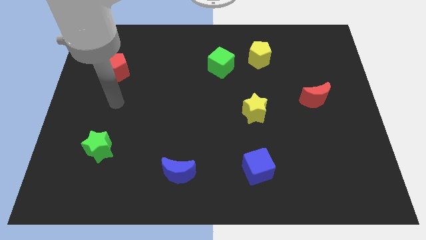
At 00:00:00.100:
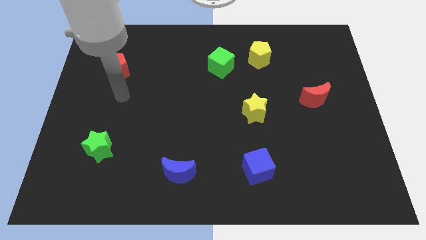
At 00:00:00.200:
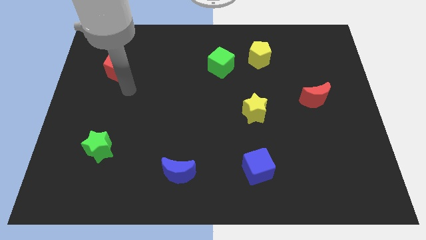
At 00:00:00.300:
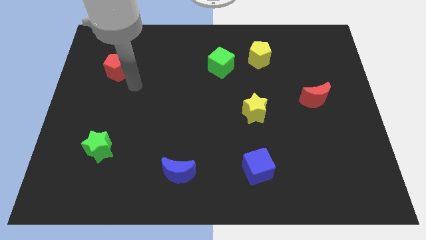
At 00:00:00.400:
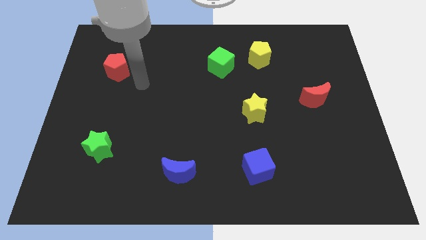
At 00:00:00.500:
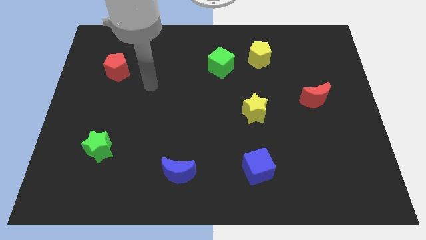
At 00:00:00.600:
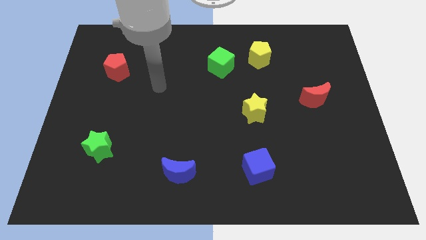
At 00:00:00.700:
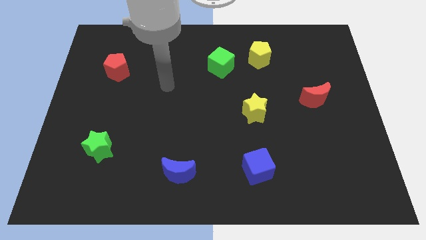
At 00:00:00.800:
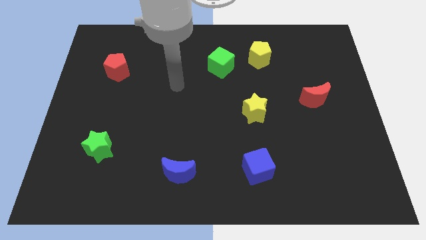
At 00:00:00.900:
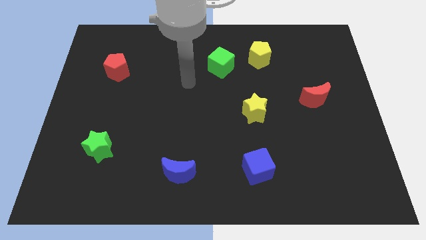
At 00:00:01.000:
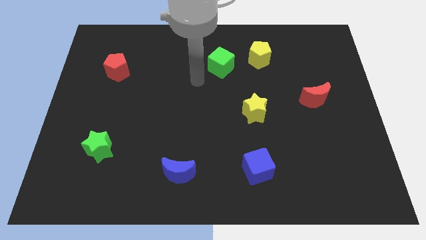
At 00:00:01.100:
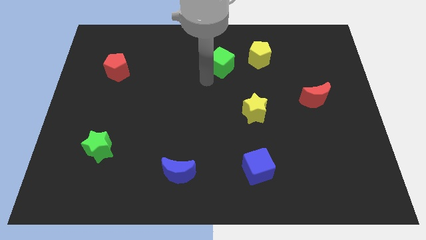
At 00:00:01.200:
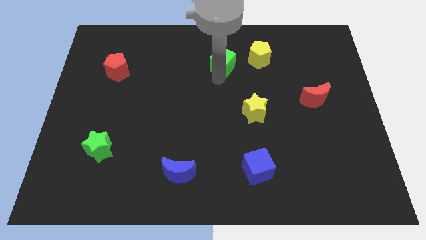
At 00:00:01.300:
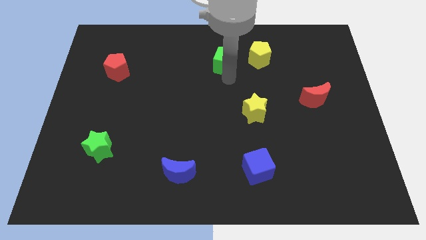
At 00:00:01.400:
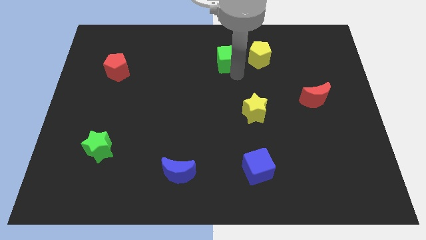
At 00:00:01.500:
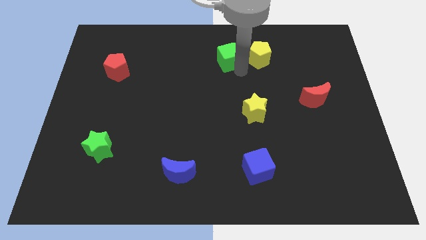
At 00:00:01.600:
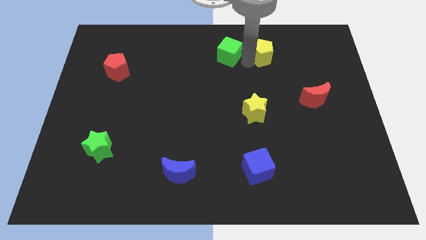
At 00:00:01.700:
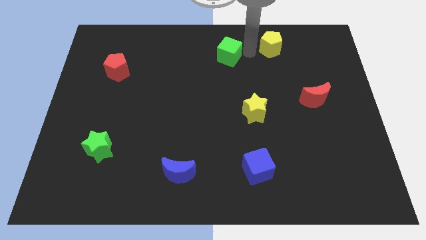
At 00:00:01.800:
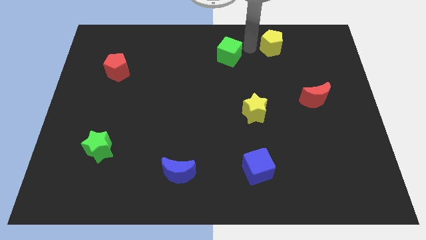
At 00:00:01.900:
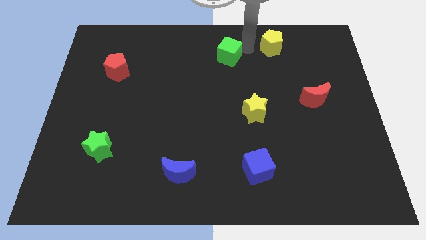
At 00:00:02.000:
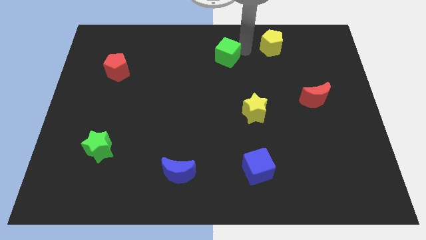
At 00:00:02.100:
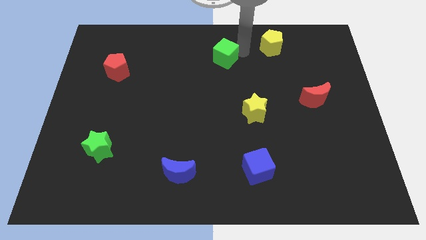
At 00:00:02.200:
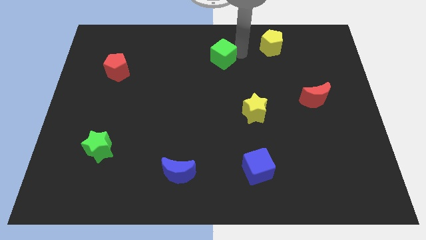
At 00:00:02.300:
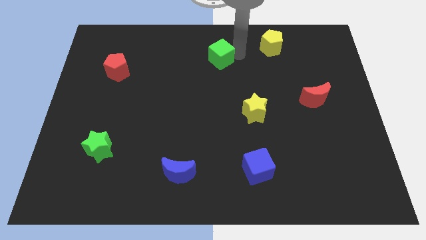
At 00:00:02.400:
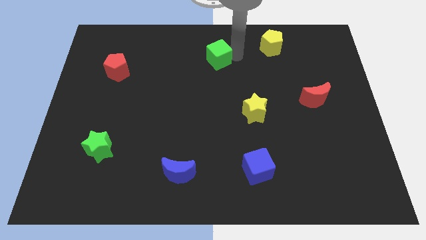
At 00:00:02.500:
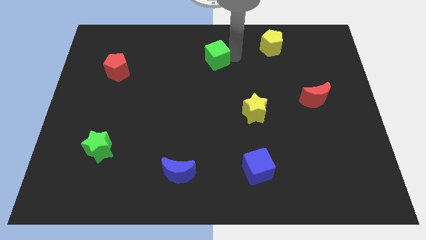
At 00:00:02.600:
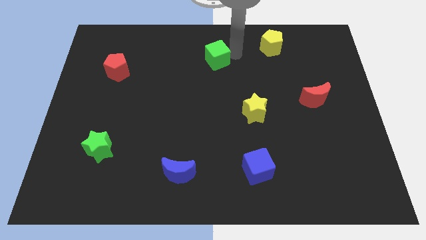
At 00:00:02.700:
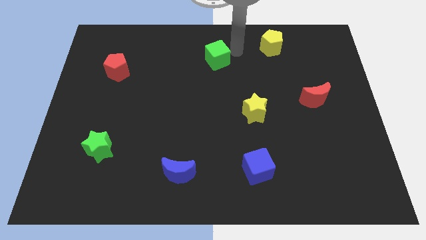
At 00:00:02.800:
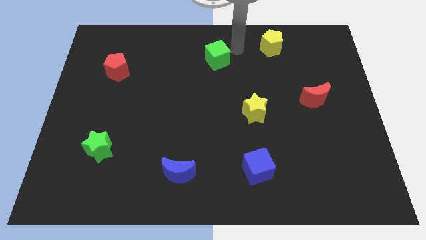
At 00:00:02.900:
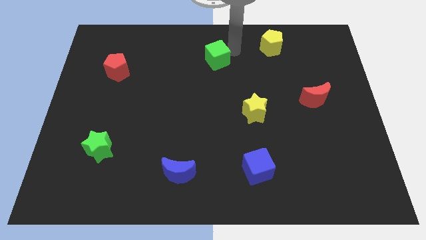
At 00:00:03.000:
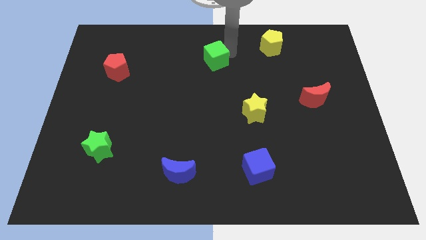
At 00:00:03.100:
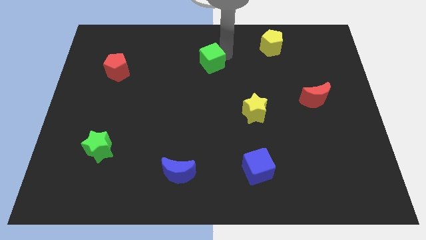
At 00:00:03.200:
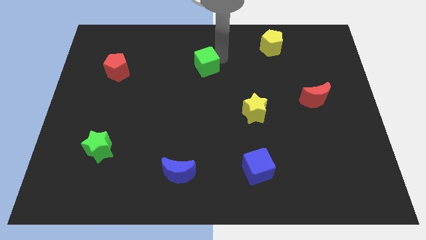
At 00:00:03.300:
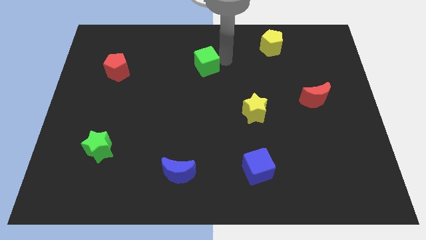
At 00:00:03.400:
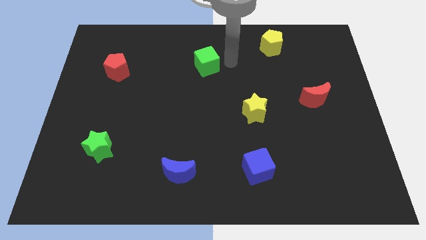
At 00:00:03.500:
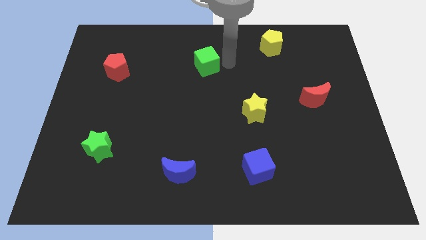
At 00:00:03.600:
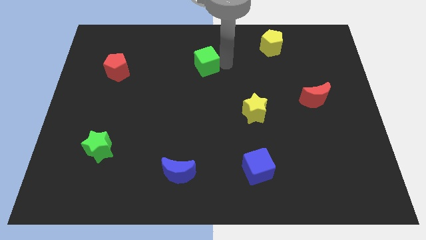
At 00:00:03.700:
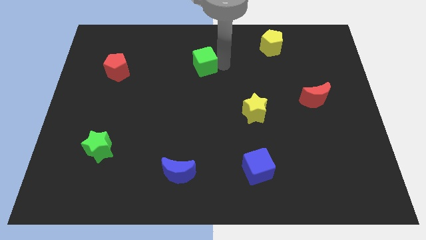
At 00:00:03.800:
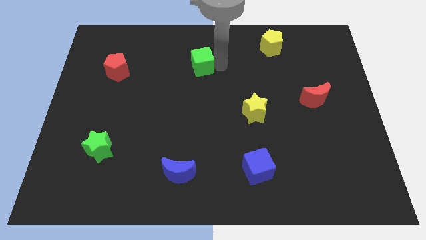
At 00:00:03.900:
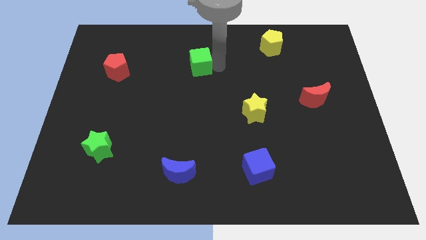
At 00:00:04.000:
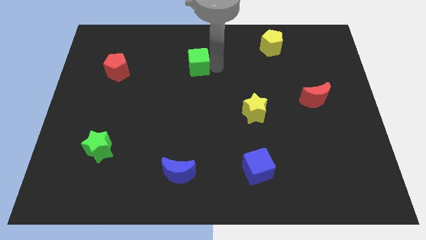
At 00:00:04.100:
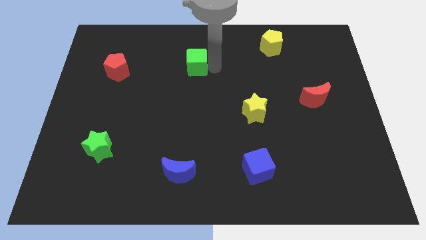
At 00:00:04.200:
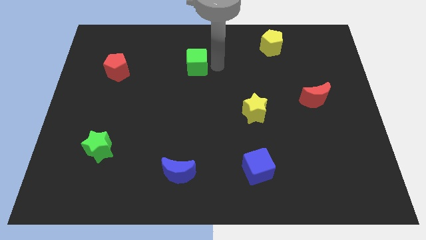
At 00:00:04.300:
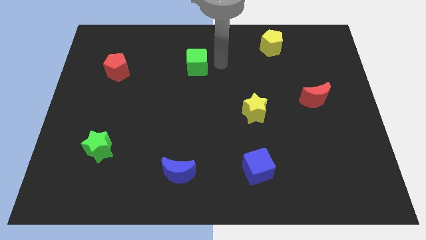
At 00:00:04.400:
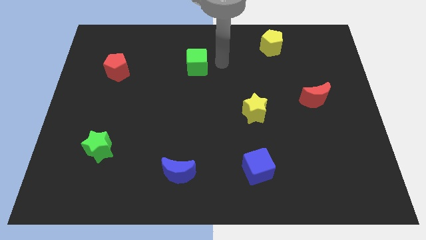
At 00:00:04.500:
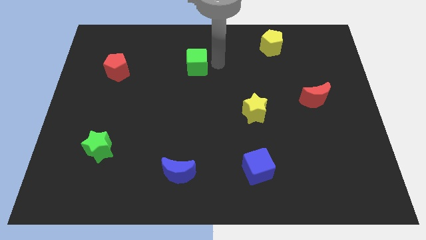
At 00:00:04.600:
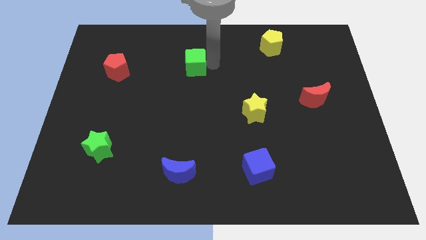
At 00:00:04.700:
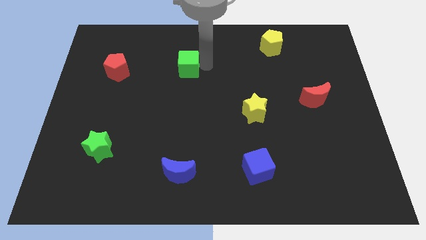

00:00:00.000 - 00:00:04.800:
slide the green cube a bit left

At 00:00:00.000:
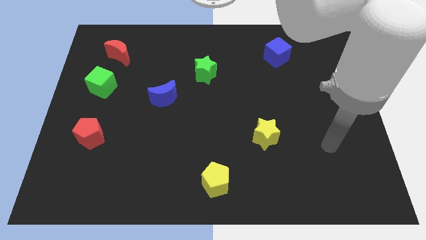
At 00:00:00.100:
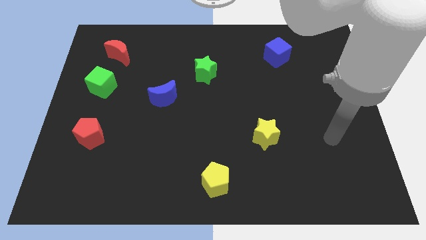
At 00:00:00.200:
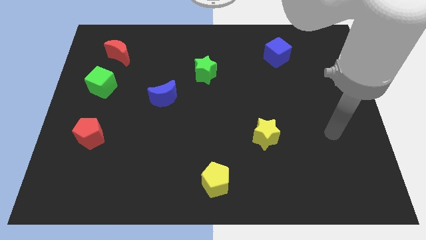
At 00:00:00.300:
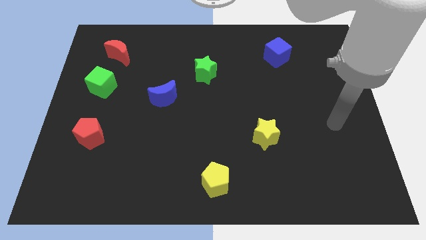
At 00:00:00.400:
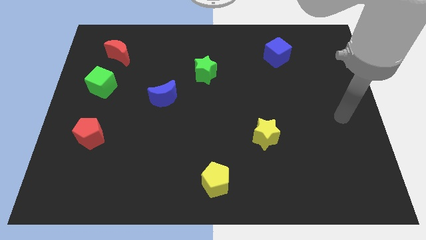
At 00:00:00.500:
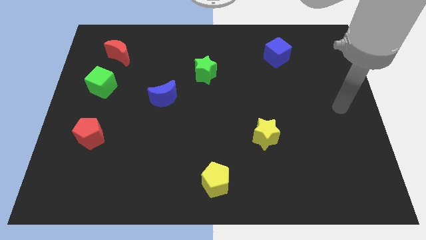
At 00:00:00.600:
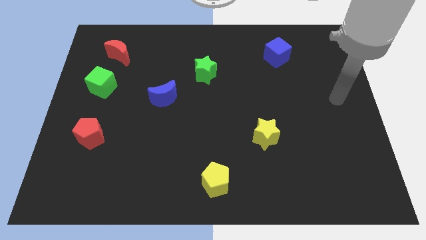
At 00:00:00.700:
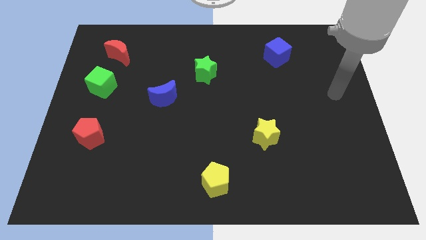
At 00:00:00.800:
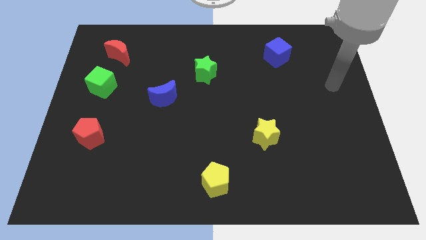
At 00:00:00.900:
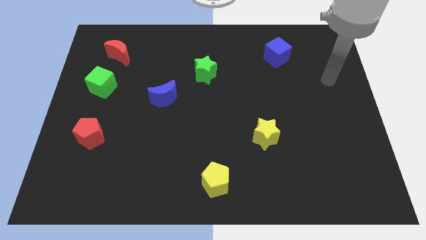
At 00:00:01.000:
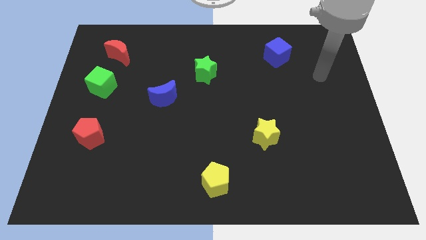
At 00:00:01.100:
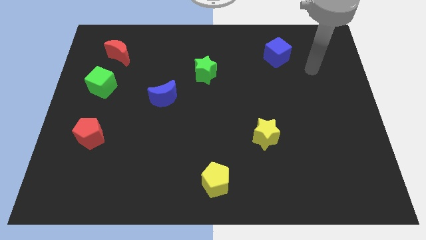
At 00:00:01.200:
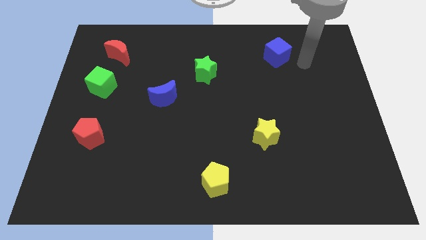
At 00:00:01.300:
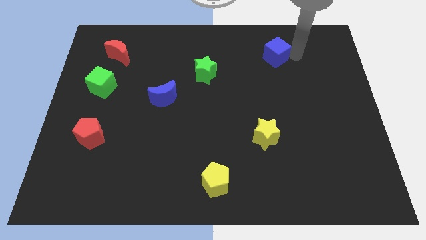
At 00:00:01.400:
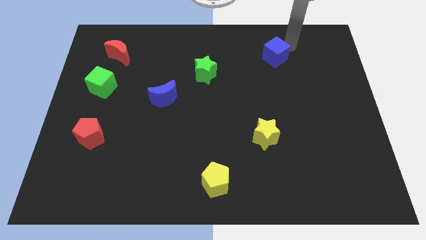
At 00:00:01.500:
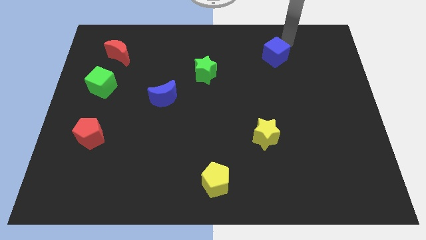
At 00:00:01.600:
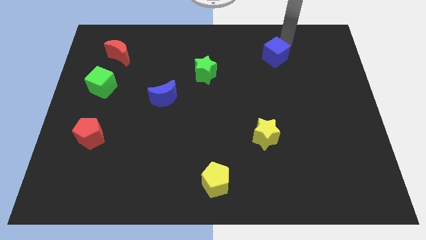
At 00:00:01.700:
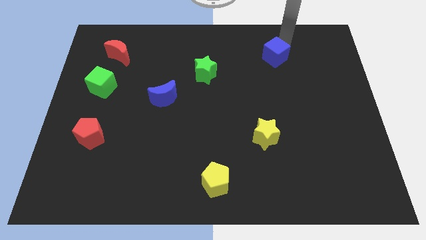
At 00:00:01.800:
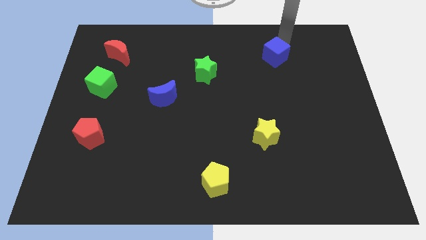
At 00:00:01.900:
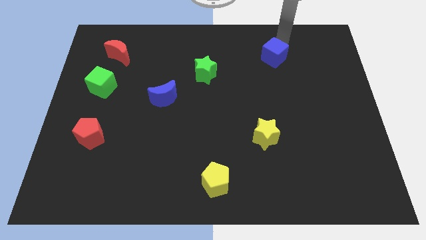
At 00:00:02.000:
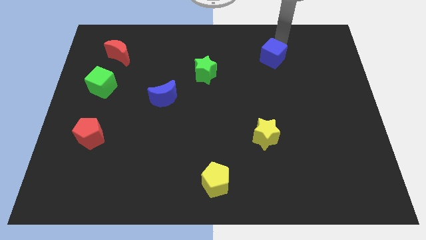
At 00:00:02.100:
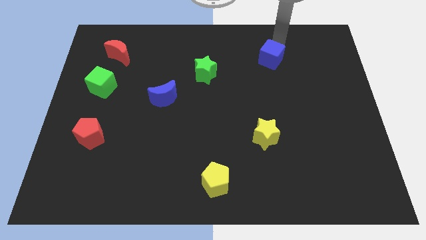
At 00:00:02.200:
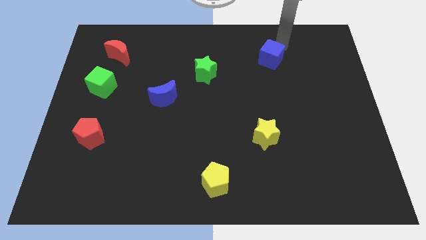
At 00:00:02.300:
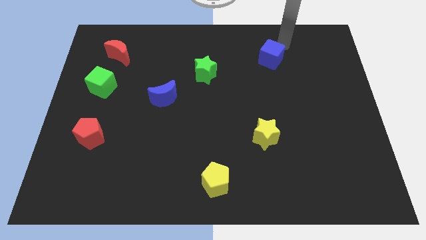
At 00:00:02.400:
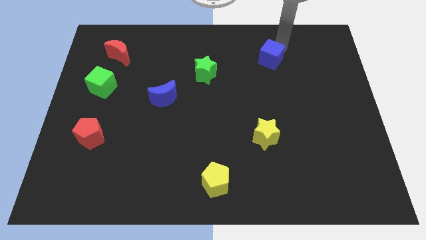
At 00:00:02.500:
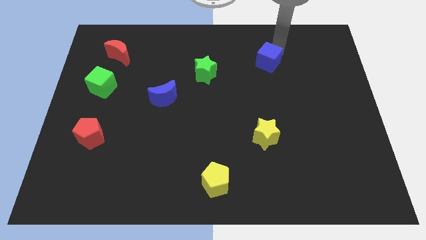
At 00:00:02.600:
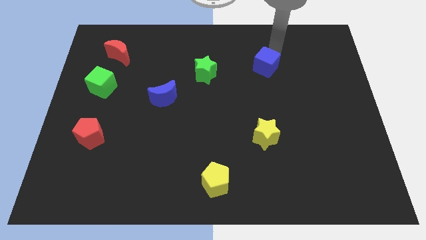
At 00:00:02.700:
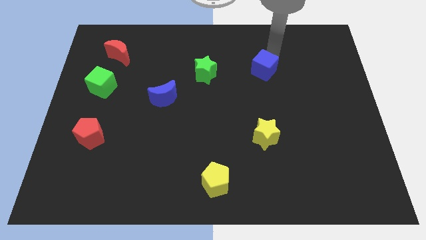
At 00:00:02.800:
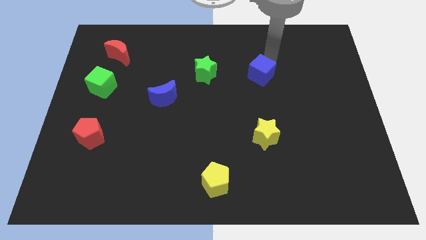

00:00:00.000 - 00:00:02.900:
slightly slide the blue cube down and to the left
